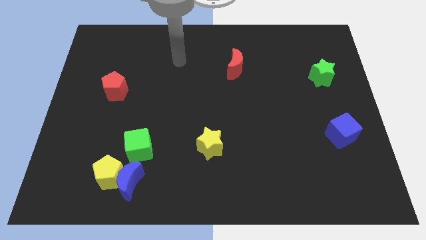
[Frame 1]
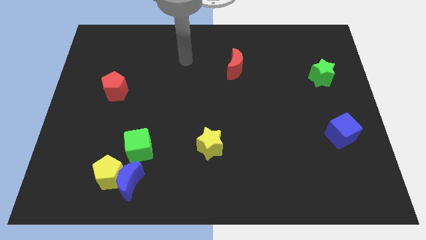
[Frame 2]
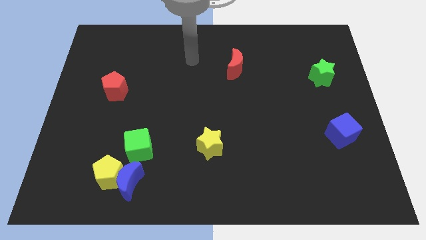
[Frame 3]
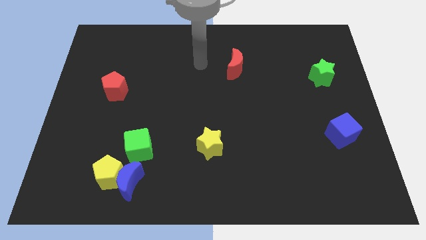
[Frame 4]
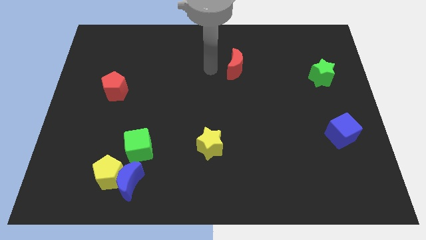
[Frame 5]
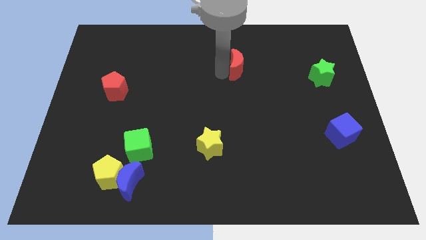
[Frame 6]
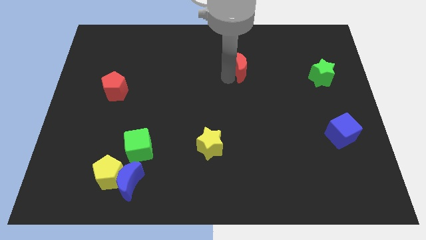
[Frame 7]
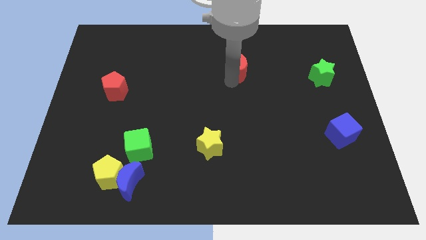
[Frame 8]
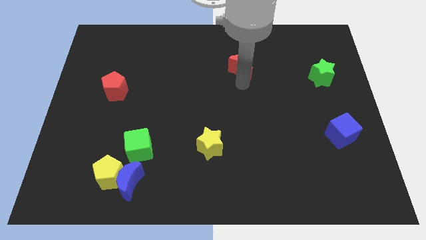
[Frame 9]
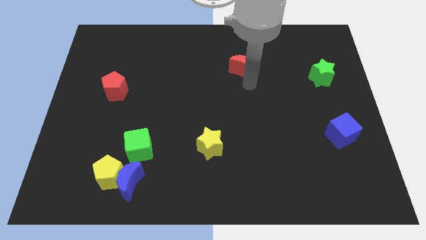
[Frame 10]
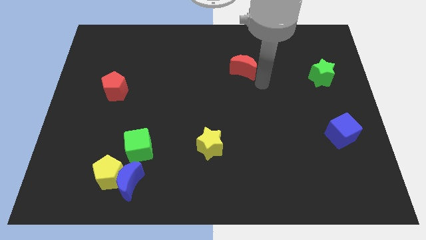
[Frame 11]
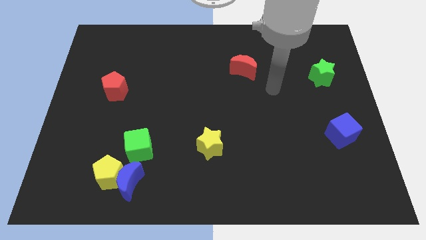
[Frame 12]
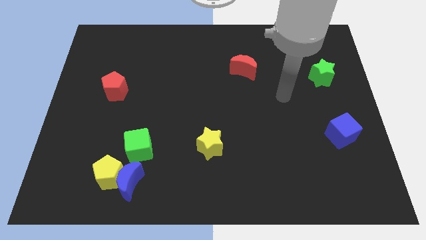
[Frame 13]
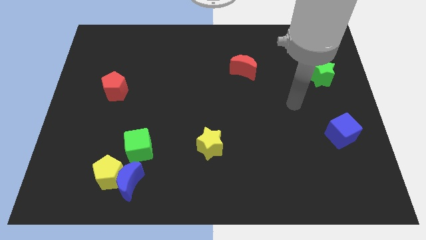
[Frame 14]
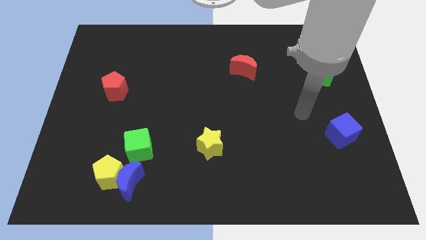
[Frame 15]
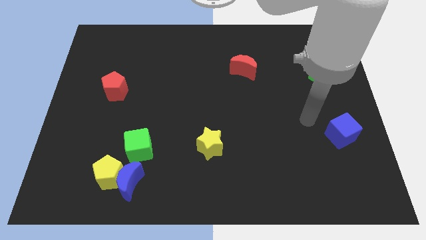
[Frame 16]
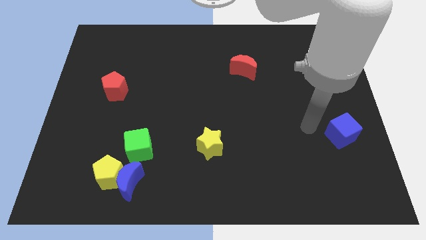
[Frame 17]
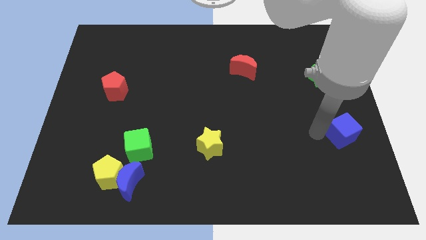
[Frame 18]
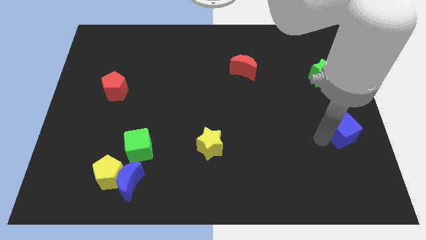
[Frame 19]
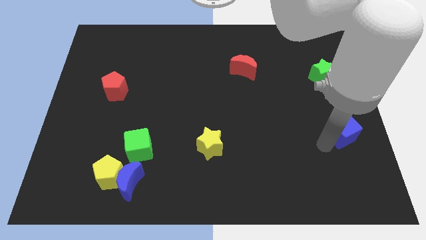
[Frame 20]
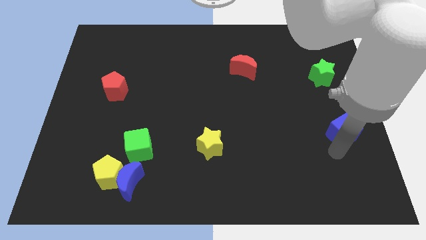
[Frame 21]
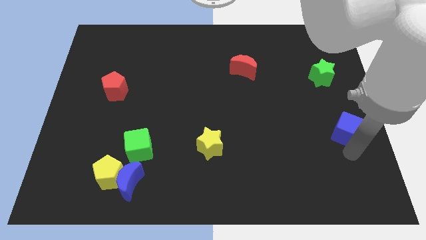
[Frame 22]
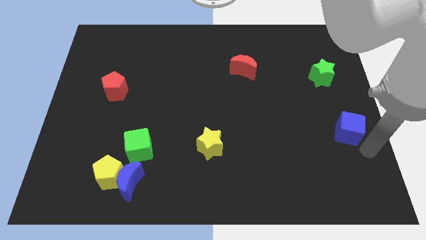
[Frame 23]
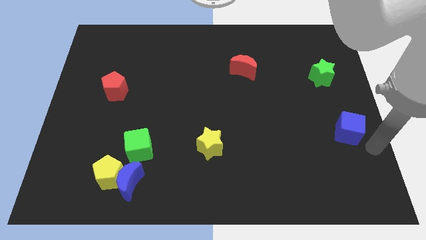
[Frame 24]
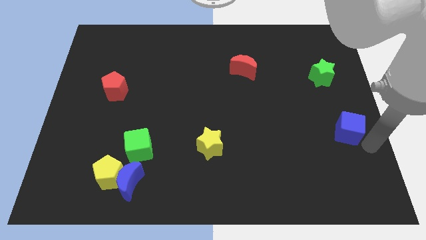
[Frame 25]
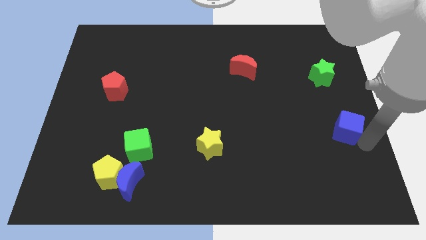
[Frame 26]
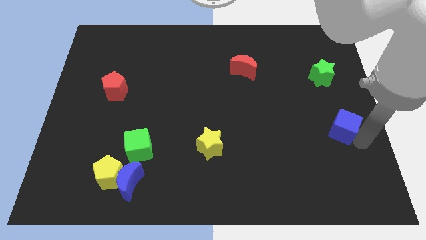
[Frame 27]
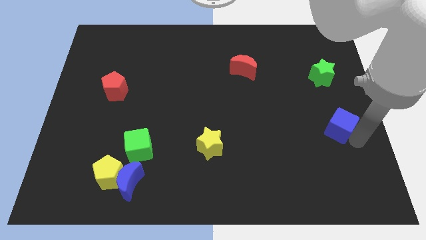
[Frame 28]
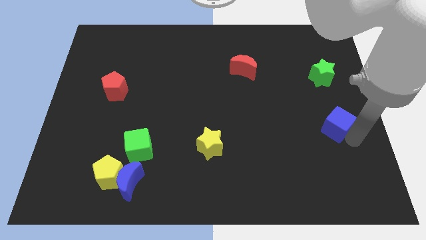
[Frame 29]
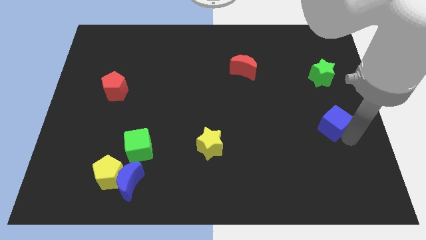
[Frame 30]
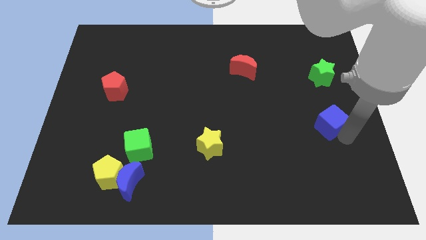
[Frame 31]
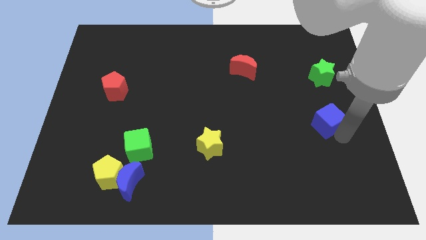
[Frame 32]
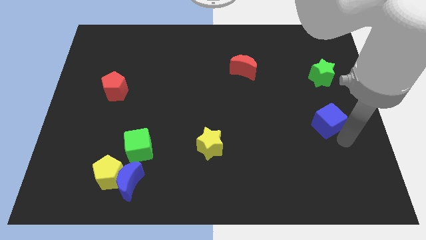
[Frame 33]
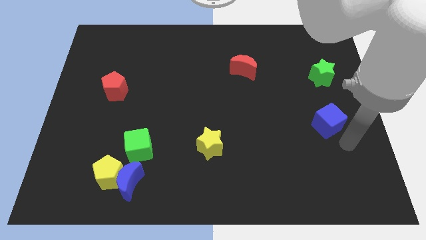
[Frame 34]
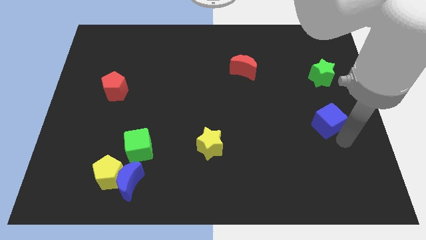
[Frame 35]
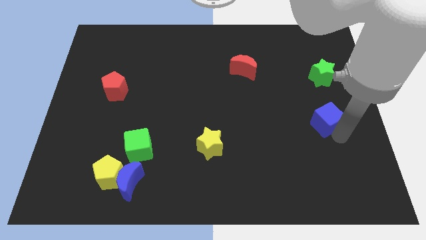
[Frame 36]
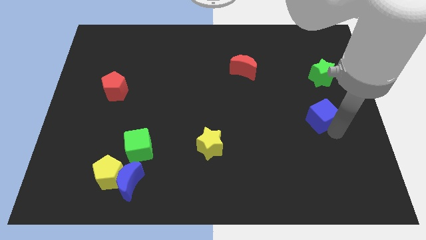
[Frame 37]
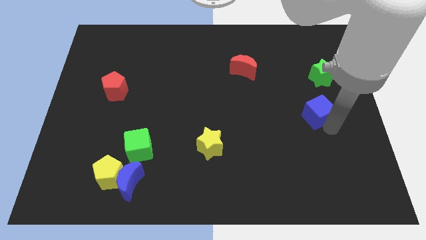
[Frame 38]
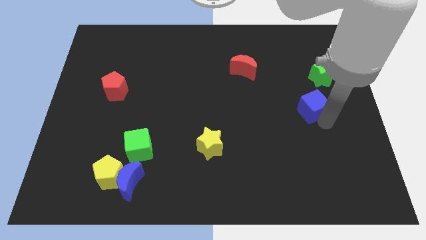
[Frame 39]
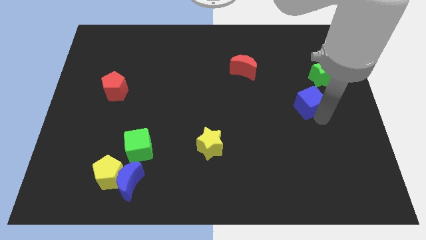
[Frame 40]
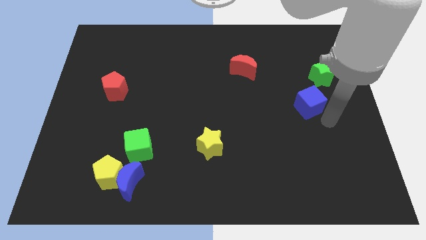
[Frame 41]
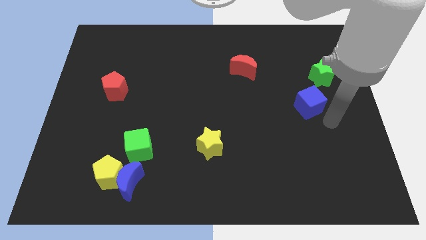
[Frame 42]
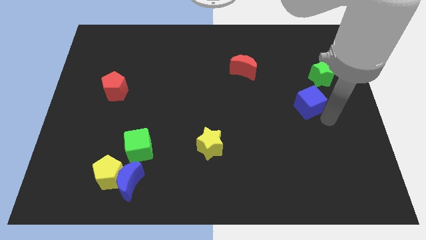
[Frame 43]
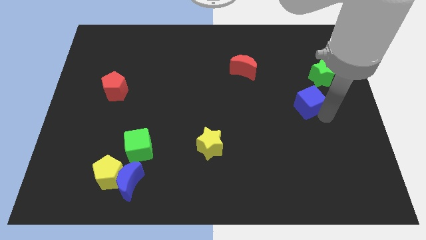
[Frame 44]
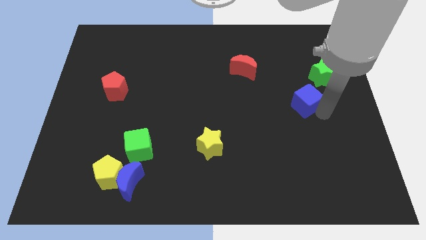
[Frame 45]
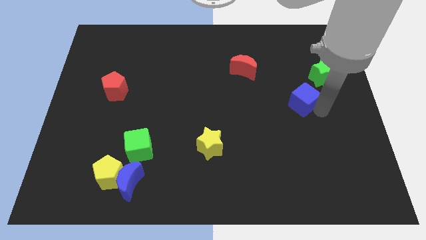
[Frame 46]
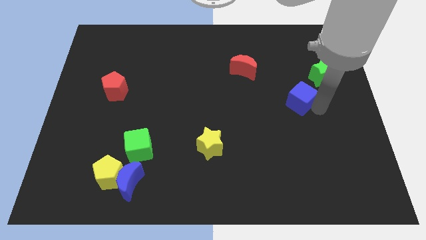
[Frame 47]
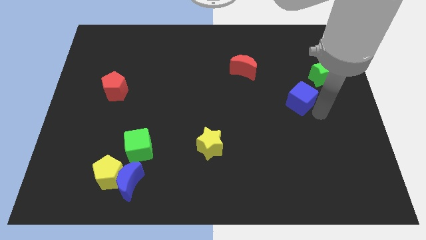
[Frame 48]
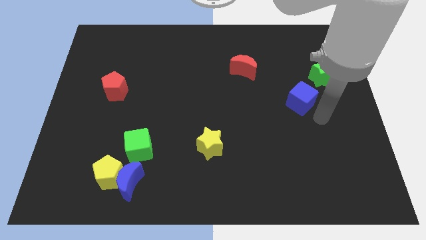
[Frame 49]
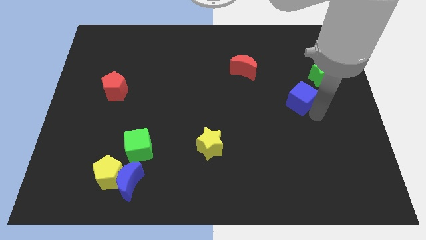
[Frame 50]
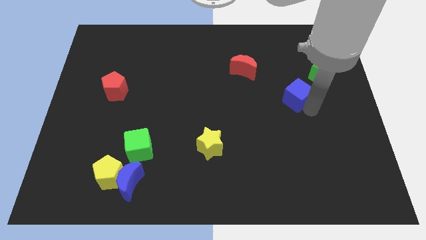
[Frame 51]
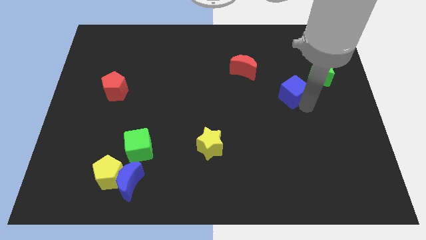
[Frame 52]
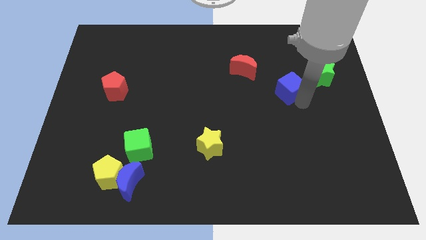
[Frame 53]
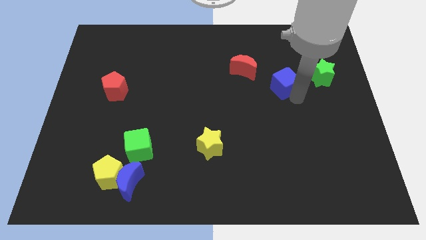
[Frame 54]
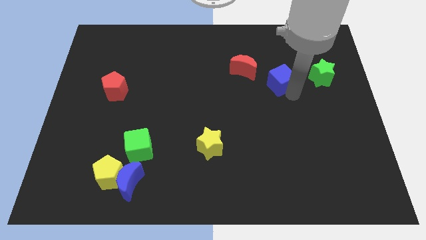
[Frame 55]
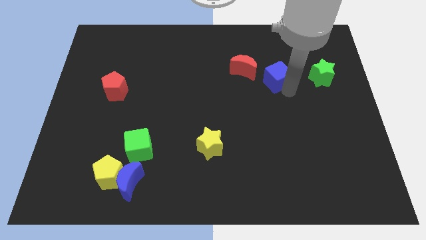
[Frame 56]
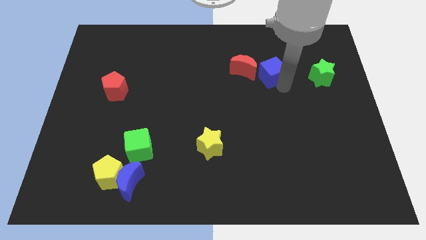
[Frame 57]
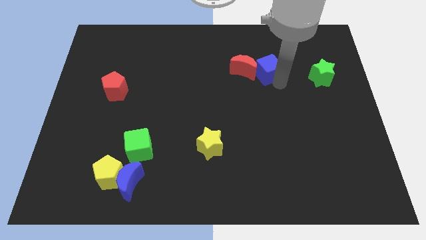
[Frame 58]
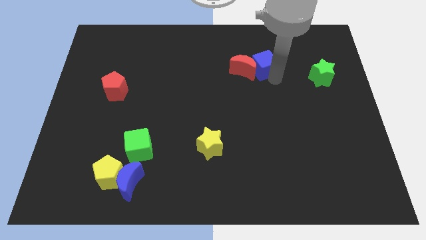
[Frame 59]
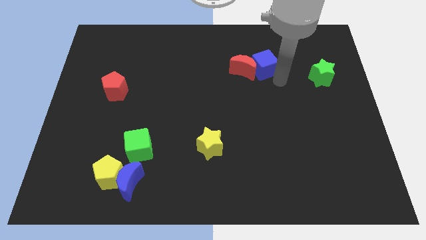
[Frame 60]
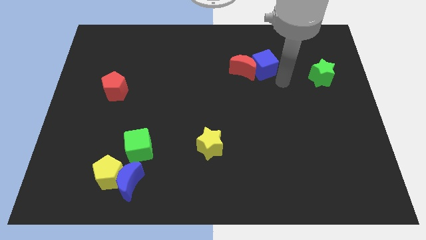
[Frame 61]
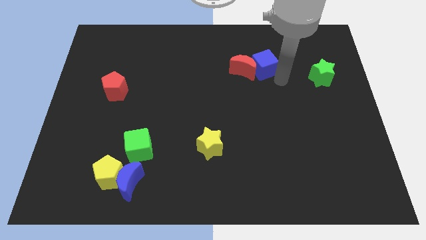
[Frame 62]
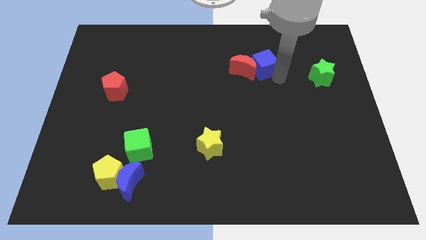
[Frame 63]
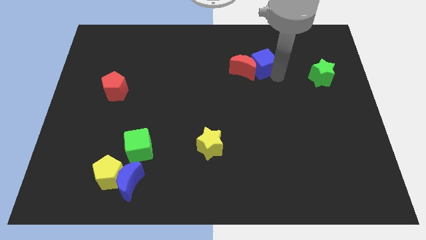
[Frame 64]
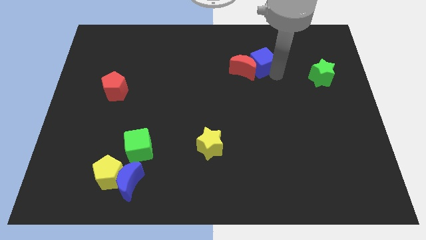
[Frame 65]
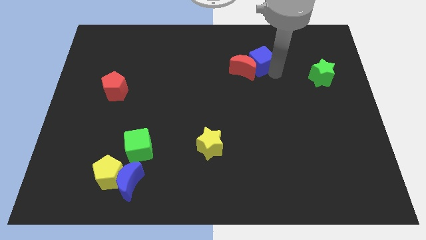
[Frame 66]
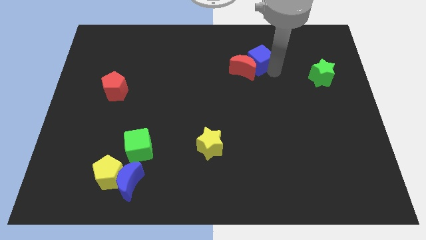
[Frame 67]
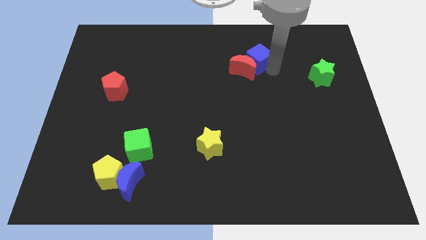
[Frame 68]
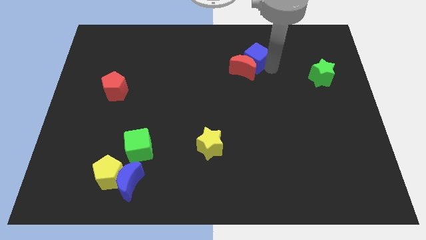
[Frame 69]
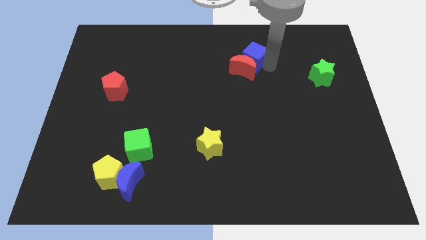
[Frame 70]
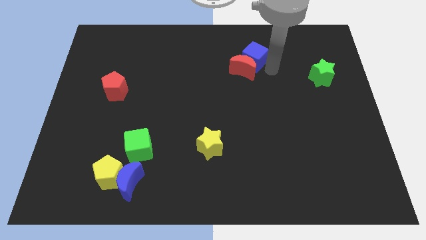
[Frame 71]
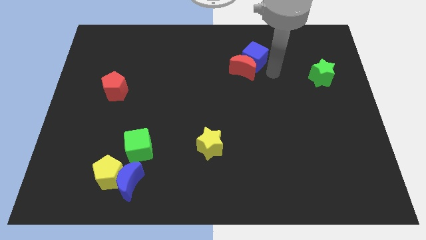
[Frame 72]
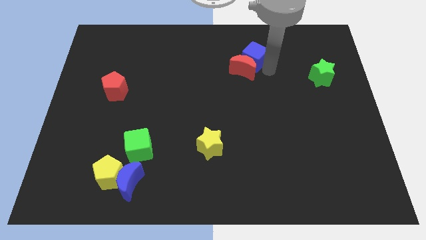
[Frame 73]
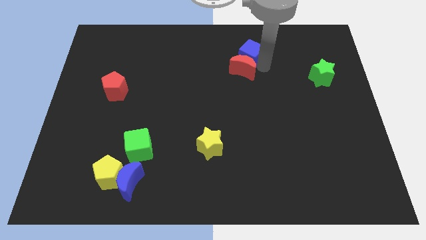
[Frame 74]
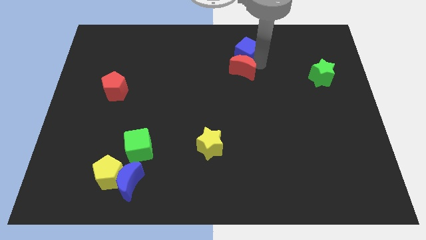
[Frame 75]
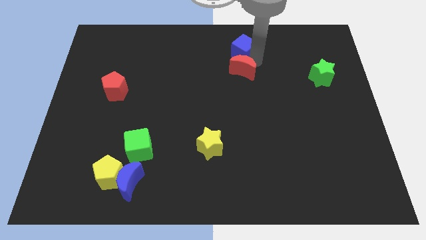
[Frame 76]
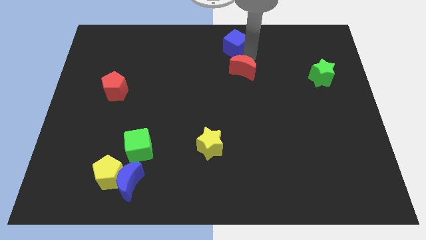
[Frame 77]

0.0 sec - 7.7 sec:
push the blue cube to the top

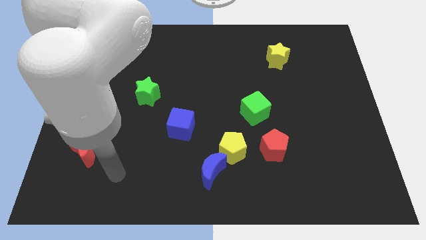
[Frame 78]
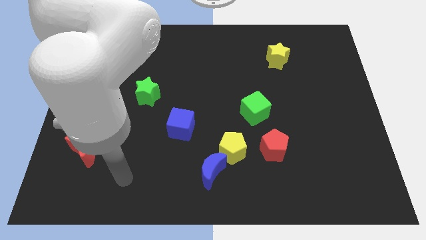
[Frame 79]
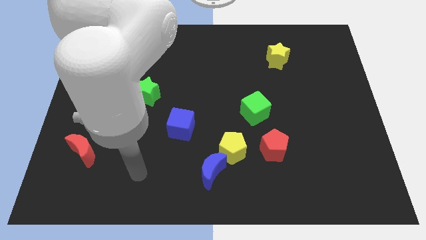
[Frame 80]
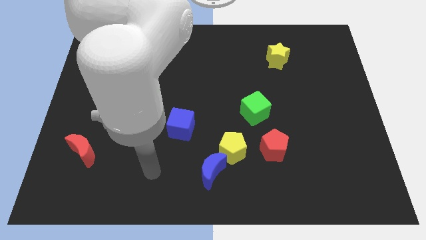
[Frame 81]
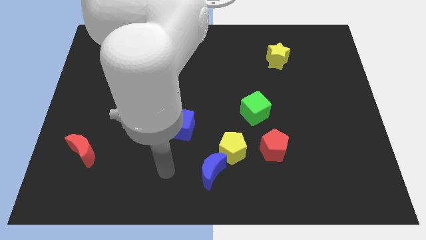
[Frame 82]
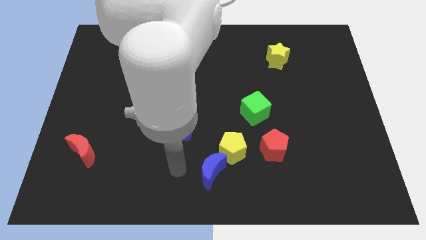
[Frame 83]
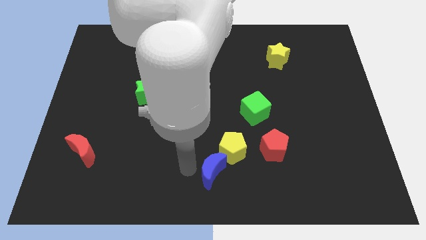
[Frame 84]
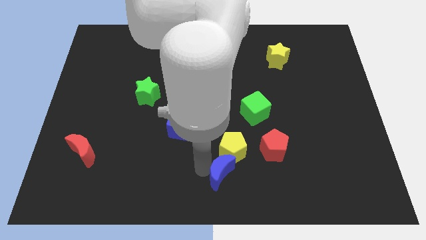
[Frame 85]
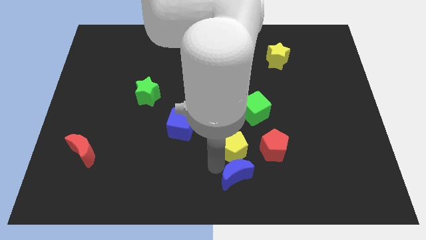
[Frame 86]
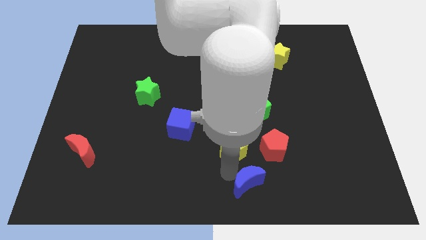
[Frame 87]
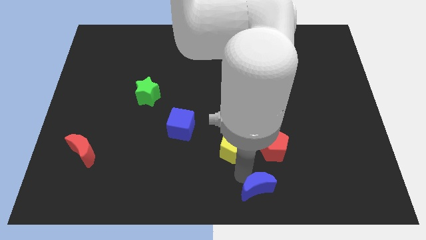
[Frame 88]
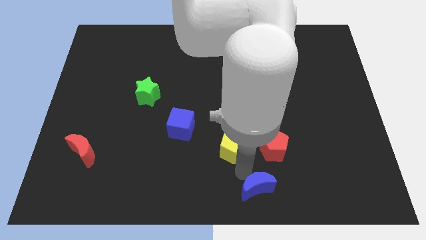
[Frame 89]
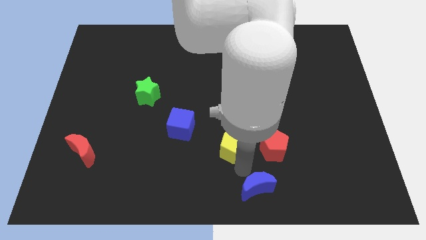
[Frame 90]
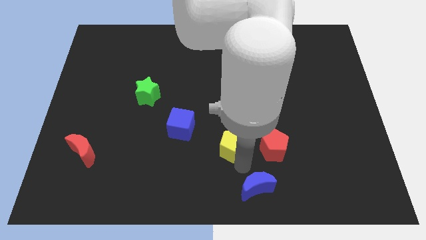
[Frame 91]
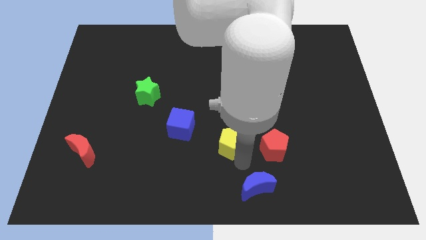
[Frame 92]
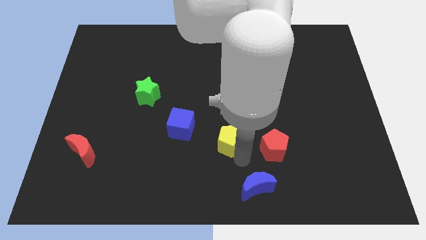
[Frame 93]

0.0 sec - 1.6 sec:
move the yellow pentagon to the center
